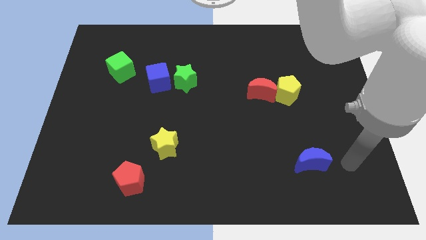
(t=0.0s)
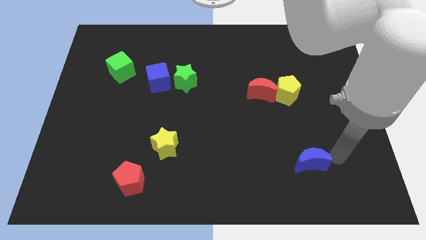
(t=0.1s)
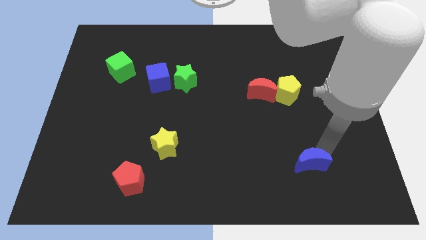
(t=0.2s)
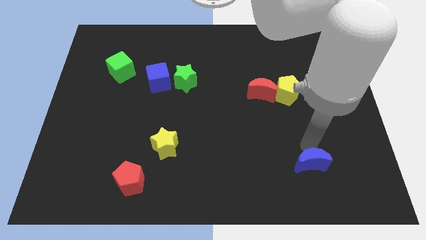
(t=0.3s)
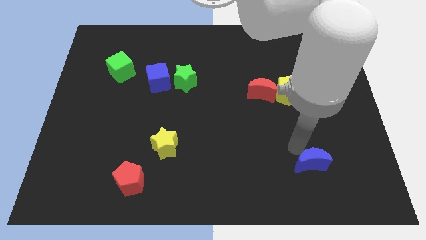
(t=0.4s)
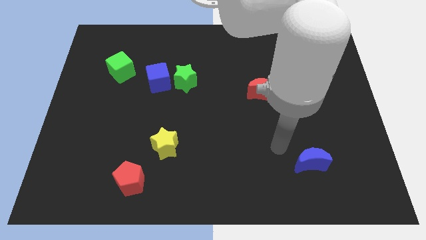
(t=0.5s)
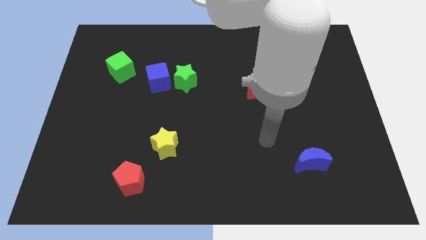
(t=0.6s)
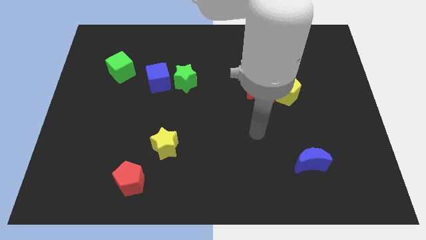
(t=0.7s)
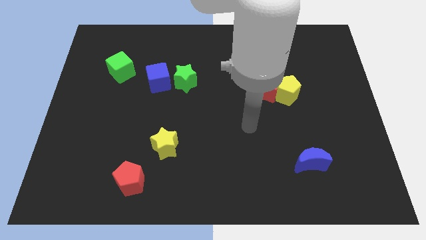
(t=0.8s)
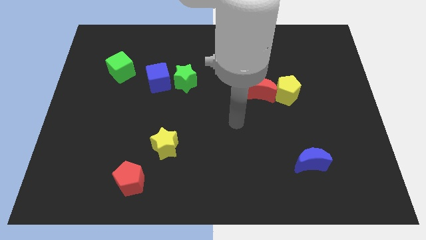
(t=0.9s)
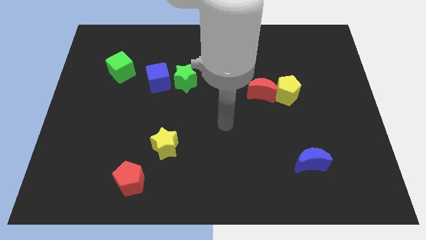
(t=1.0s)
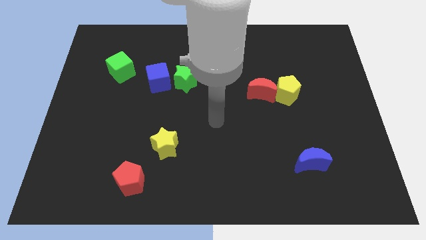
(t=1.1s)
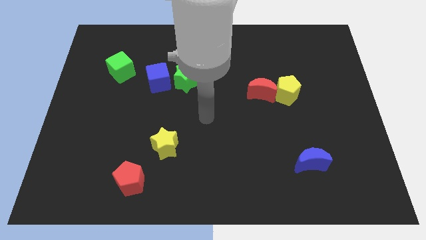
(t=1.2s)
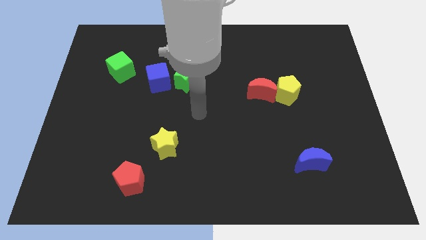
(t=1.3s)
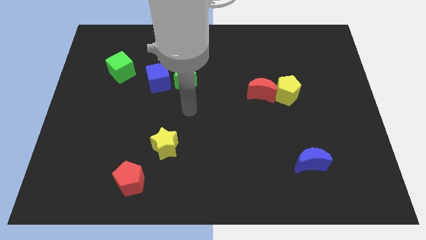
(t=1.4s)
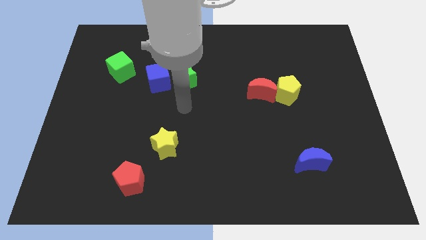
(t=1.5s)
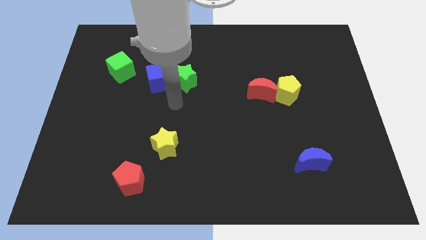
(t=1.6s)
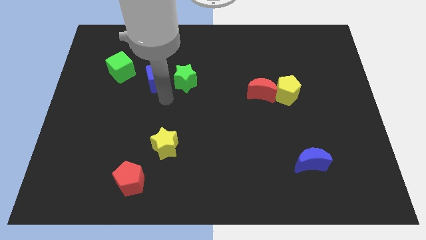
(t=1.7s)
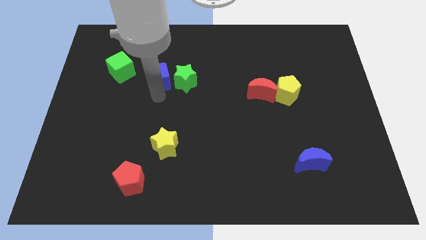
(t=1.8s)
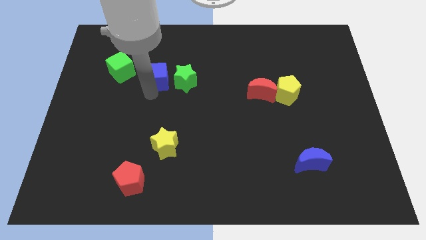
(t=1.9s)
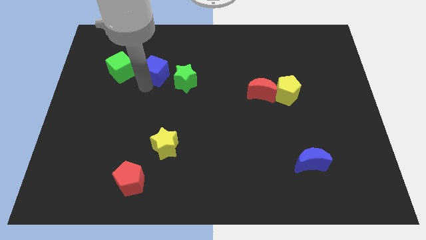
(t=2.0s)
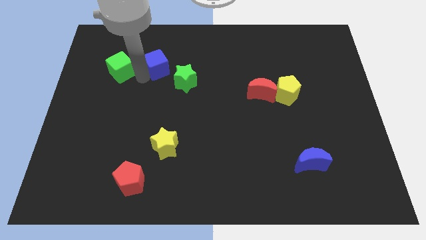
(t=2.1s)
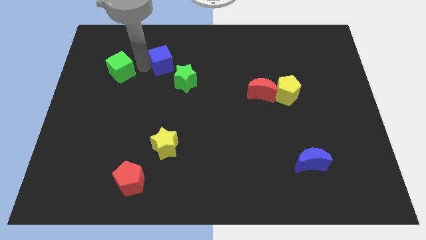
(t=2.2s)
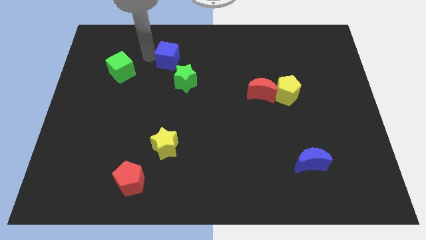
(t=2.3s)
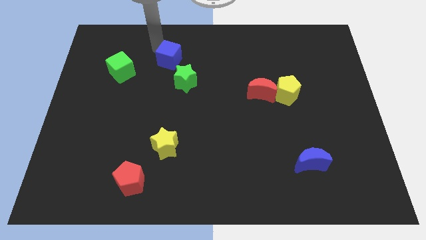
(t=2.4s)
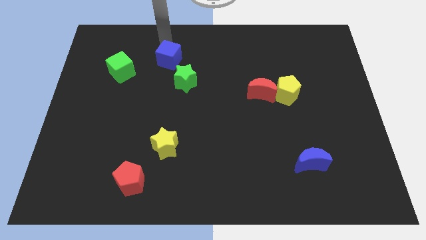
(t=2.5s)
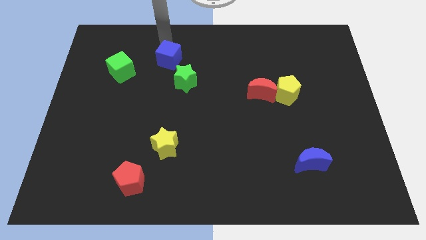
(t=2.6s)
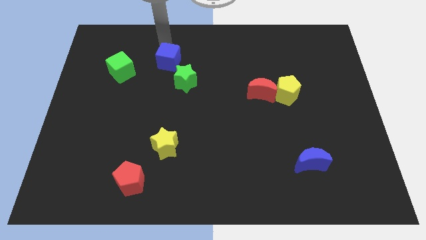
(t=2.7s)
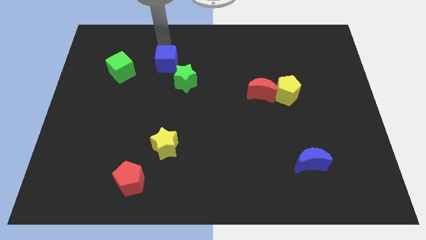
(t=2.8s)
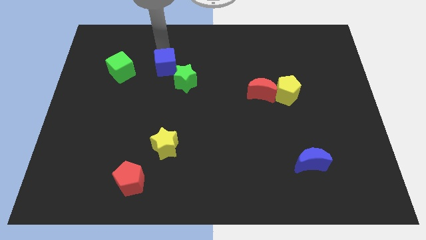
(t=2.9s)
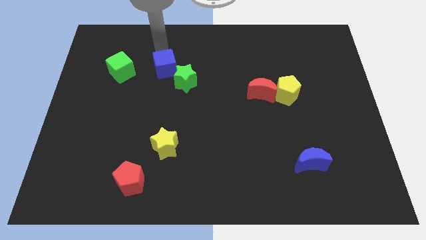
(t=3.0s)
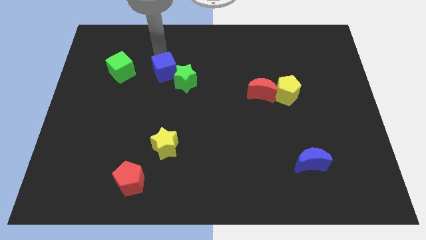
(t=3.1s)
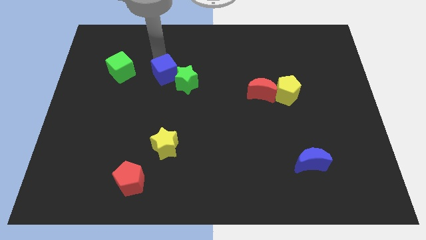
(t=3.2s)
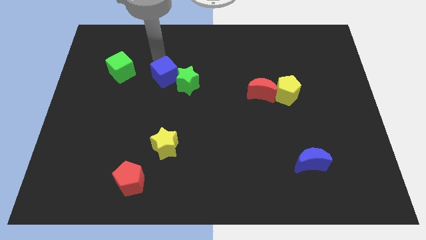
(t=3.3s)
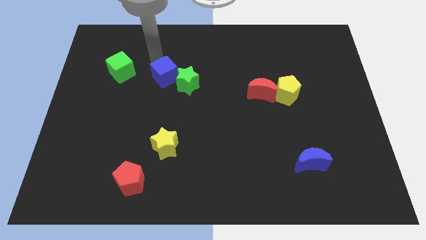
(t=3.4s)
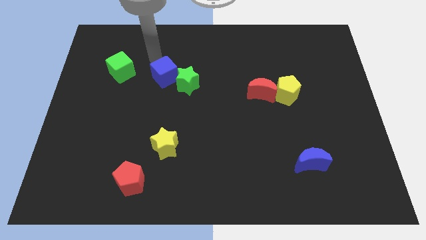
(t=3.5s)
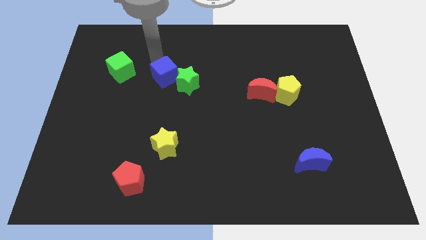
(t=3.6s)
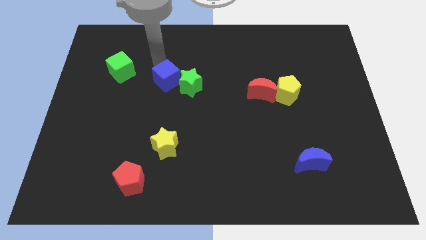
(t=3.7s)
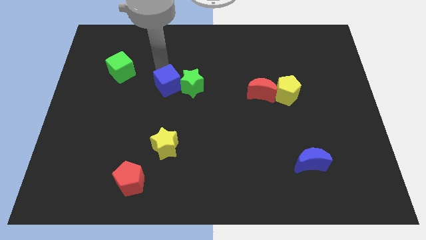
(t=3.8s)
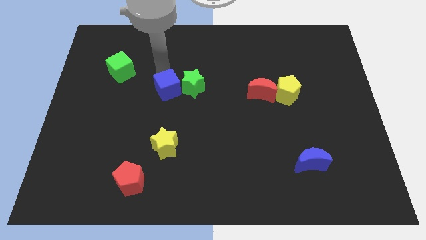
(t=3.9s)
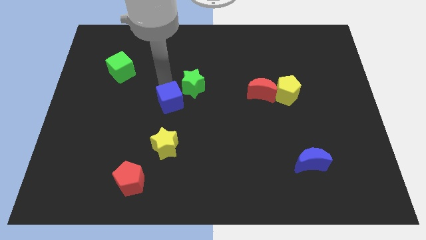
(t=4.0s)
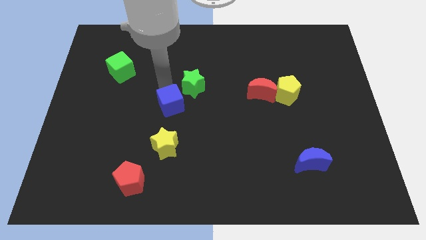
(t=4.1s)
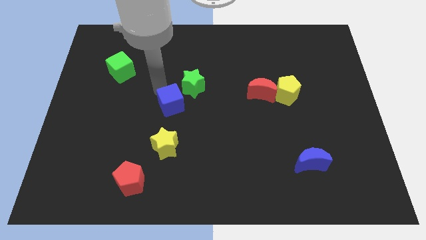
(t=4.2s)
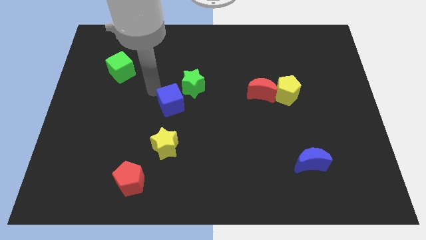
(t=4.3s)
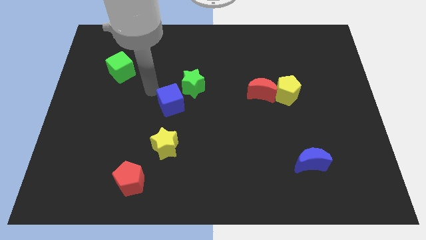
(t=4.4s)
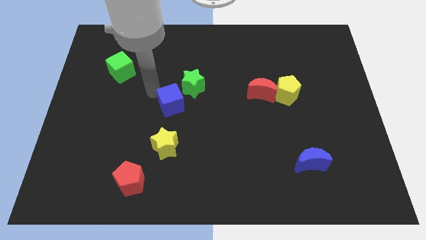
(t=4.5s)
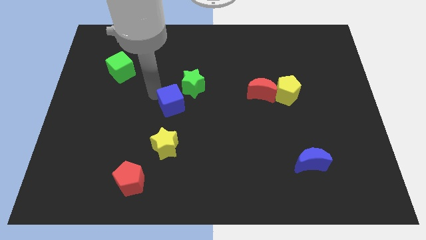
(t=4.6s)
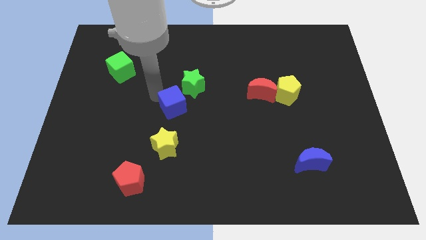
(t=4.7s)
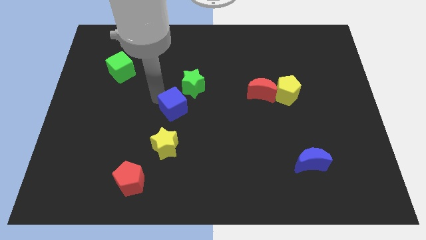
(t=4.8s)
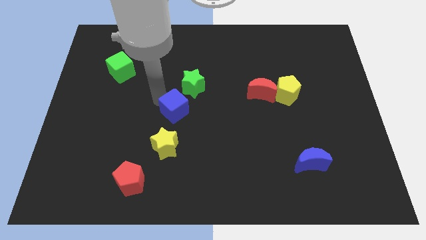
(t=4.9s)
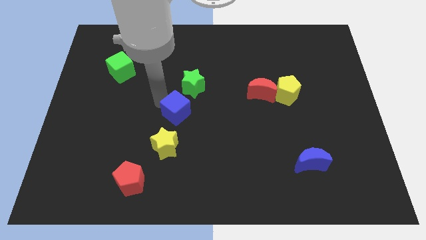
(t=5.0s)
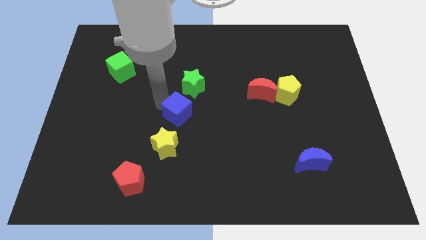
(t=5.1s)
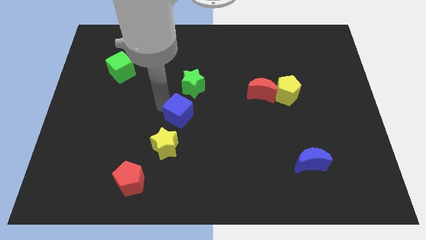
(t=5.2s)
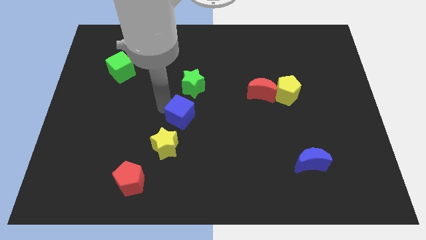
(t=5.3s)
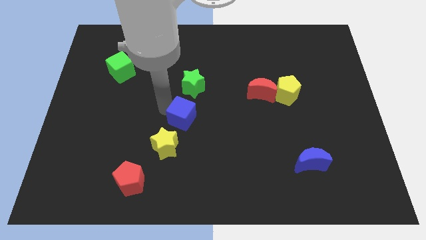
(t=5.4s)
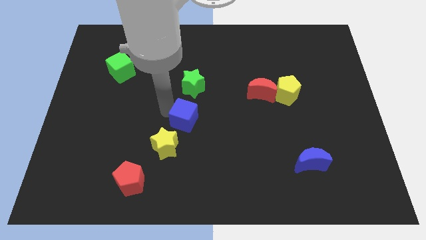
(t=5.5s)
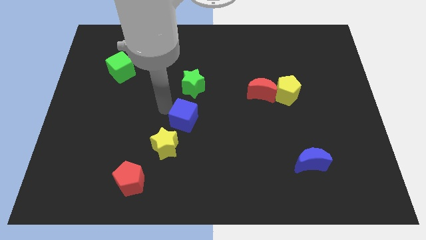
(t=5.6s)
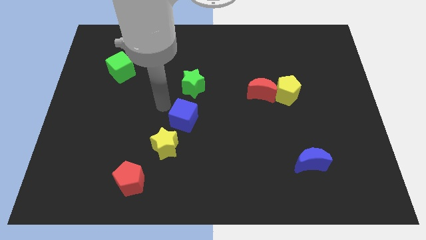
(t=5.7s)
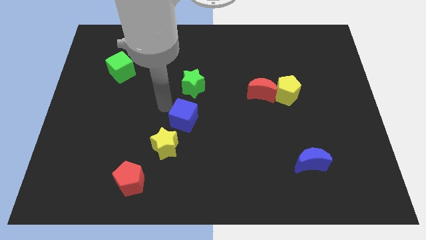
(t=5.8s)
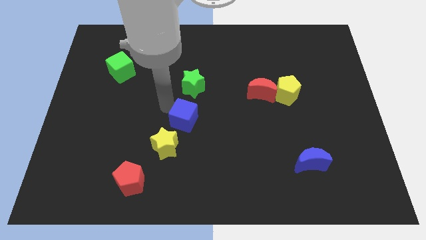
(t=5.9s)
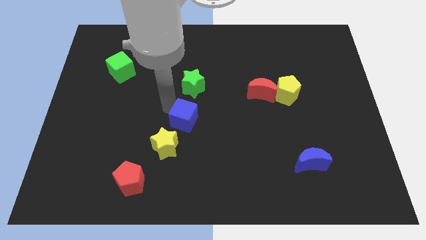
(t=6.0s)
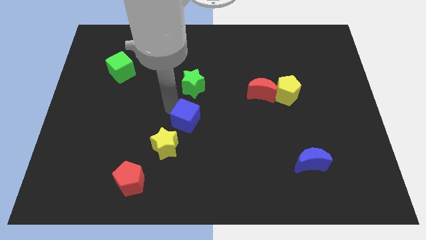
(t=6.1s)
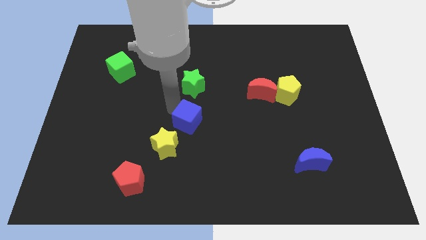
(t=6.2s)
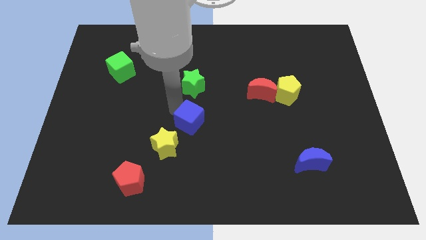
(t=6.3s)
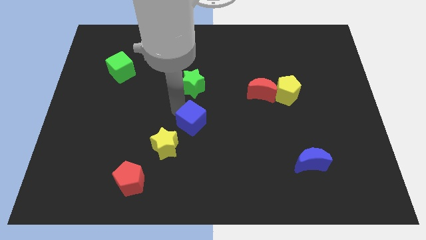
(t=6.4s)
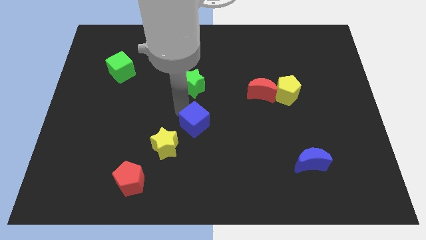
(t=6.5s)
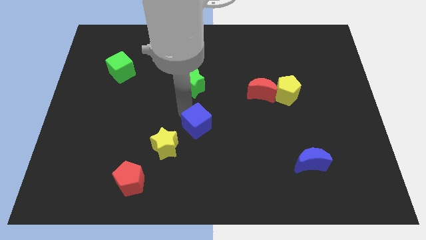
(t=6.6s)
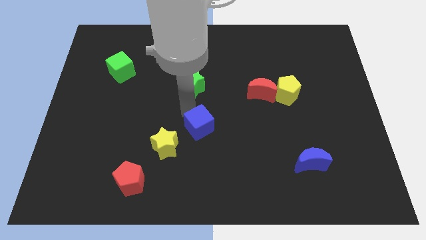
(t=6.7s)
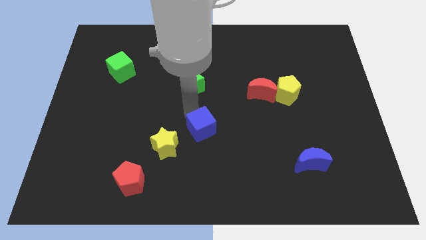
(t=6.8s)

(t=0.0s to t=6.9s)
push the blue cube right of the yellow star
